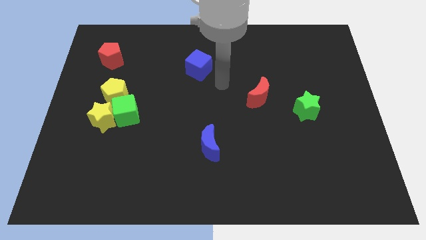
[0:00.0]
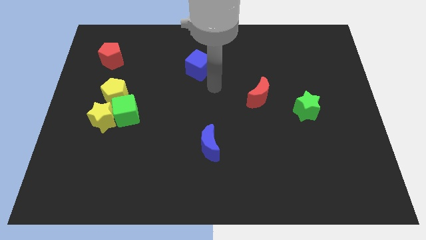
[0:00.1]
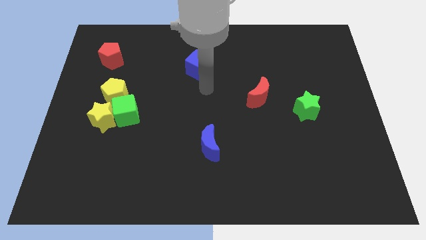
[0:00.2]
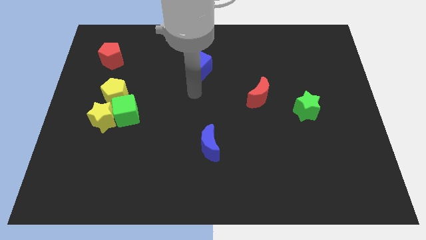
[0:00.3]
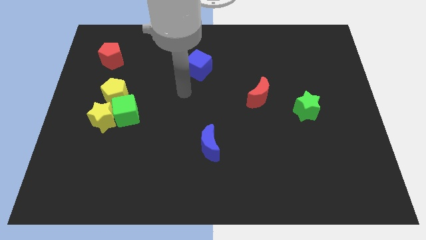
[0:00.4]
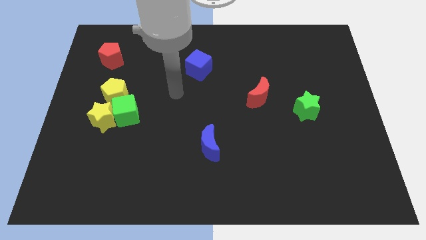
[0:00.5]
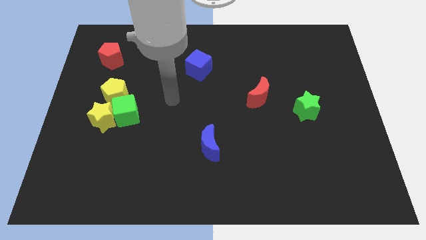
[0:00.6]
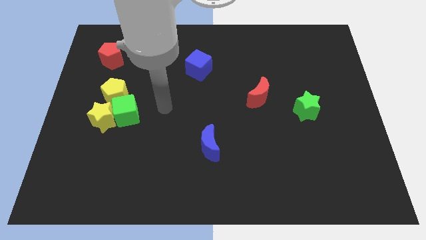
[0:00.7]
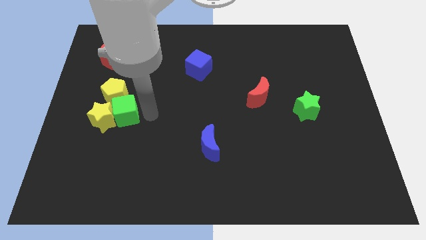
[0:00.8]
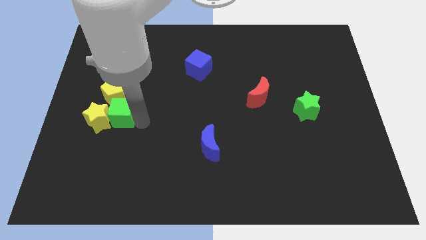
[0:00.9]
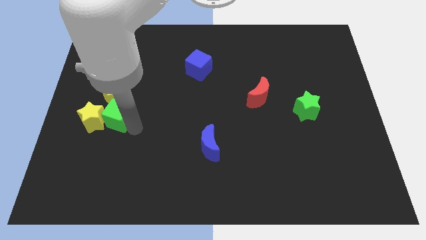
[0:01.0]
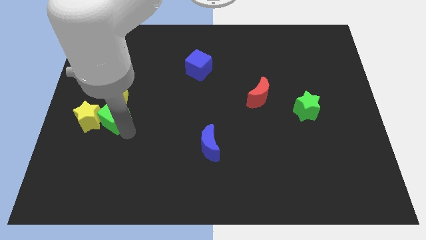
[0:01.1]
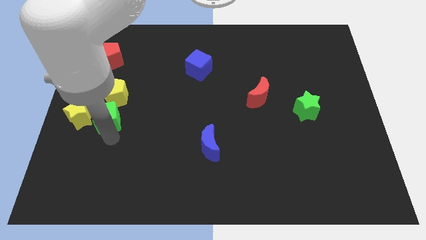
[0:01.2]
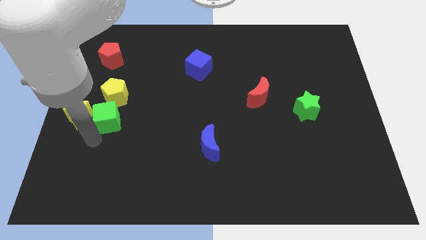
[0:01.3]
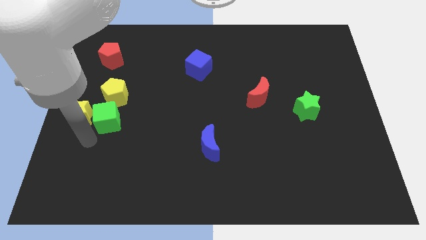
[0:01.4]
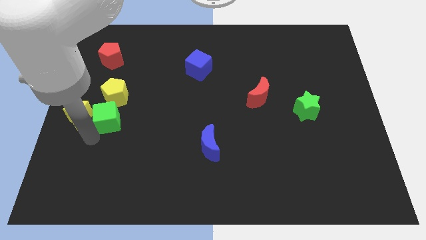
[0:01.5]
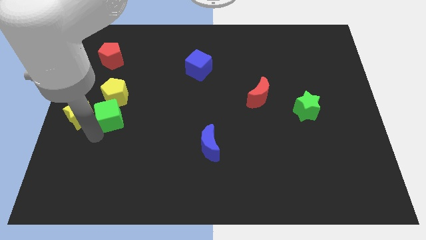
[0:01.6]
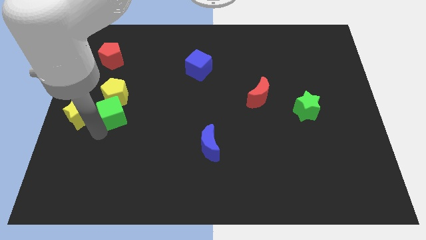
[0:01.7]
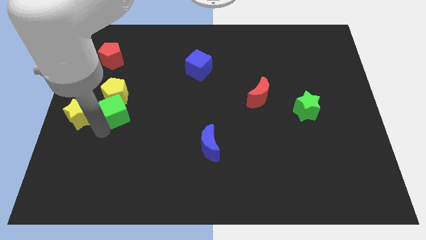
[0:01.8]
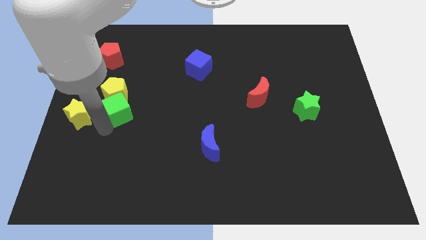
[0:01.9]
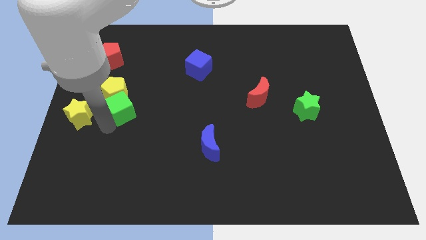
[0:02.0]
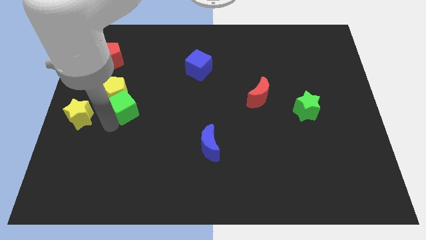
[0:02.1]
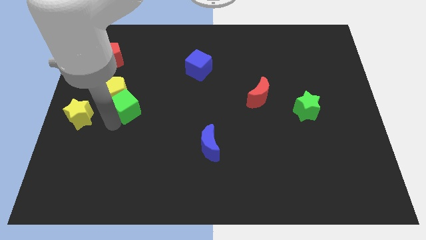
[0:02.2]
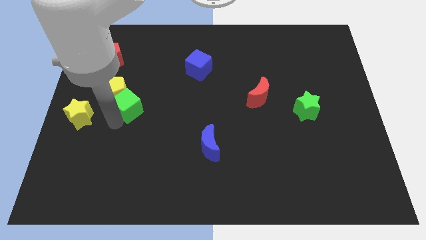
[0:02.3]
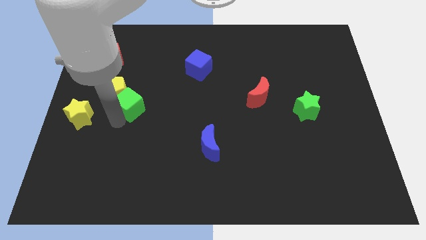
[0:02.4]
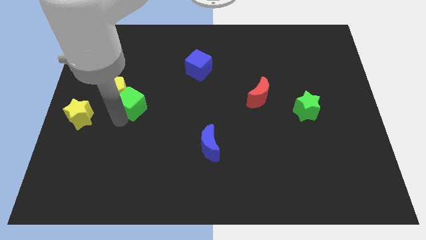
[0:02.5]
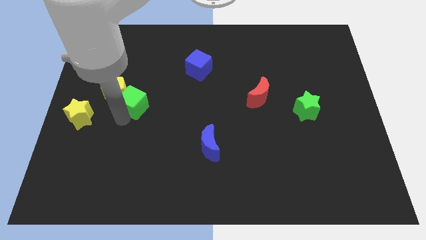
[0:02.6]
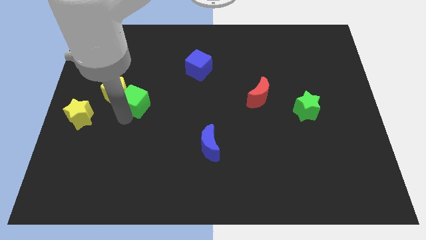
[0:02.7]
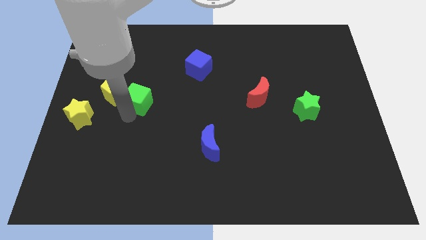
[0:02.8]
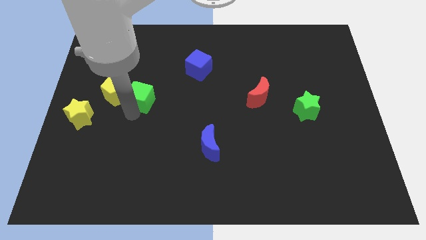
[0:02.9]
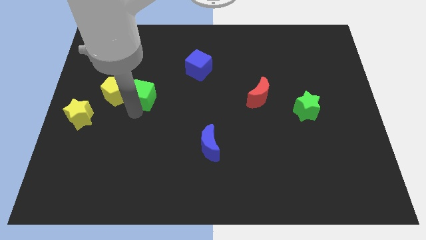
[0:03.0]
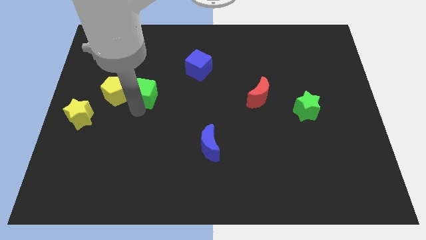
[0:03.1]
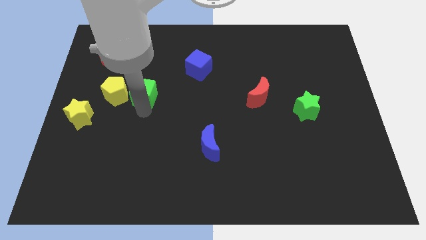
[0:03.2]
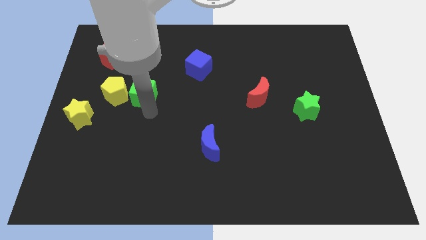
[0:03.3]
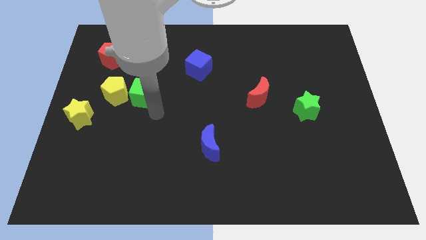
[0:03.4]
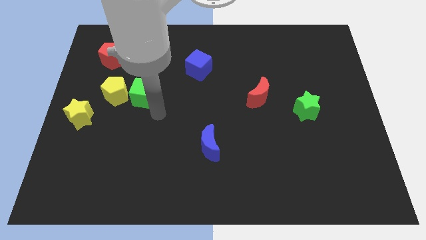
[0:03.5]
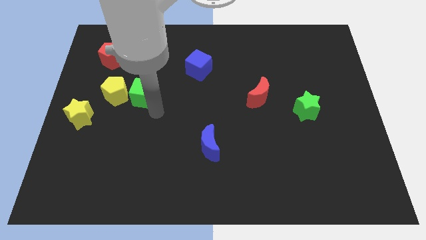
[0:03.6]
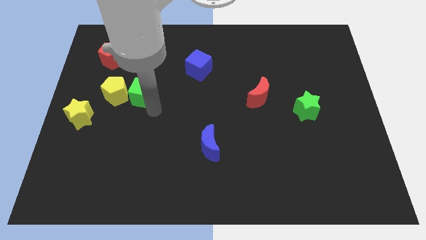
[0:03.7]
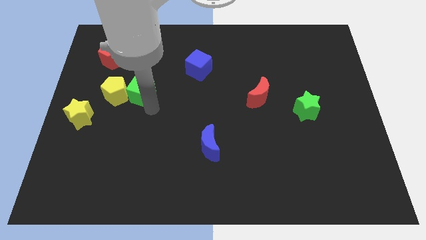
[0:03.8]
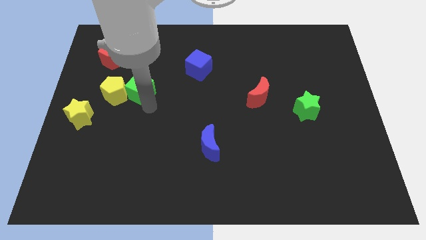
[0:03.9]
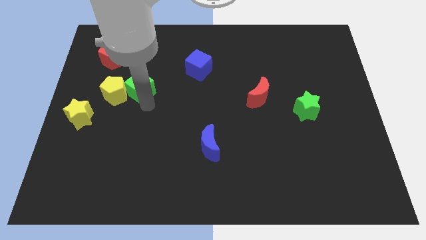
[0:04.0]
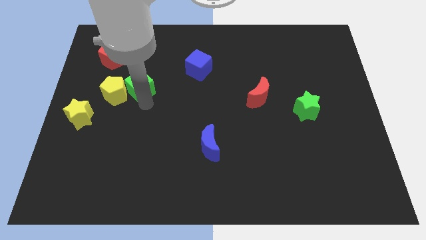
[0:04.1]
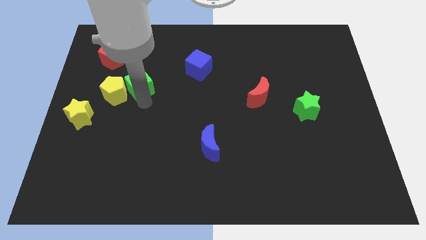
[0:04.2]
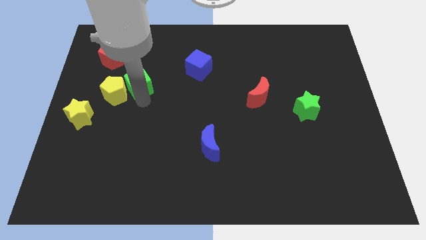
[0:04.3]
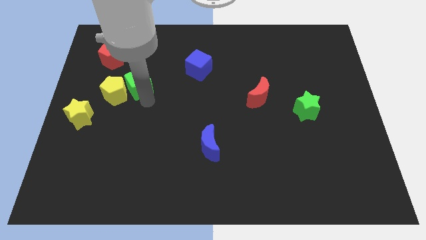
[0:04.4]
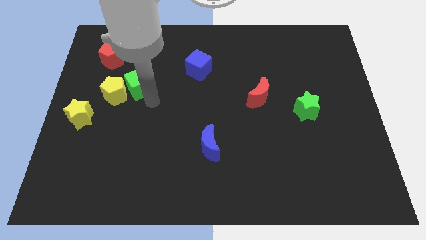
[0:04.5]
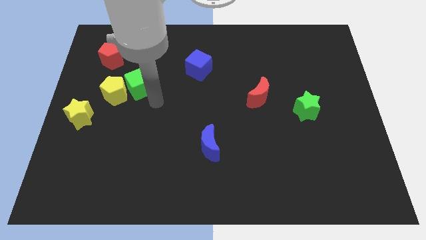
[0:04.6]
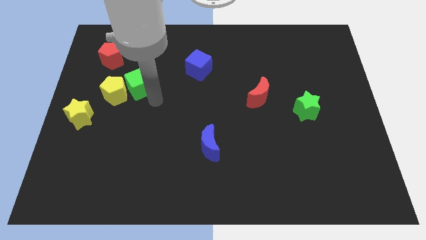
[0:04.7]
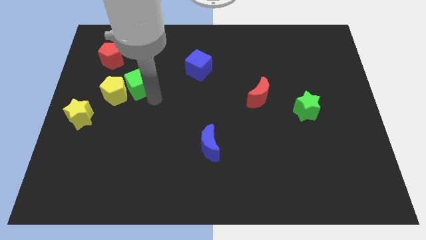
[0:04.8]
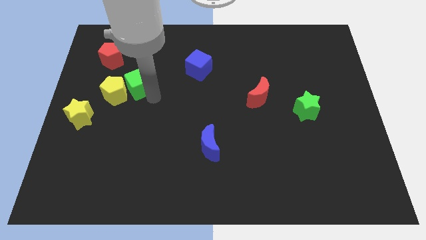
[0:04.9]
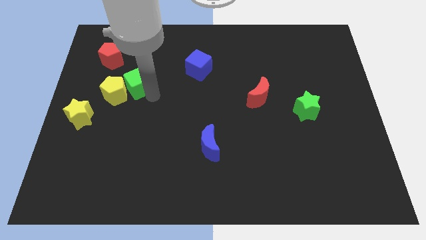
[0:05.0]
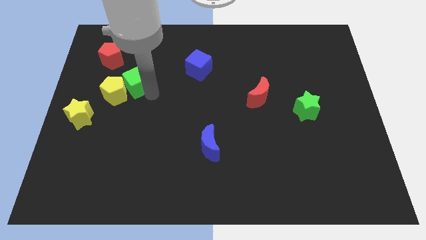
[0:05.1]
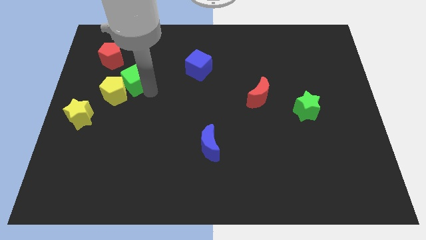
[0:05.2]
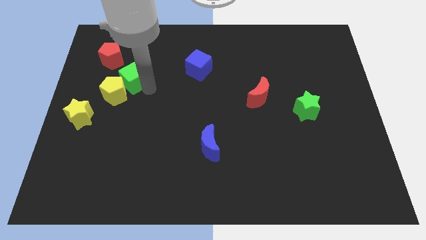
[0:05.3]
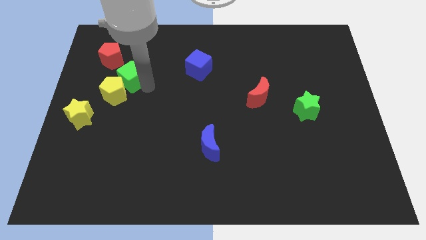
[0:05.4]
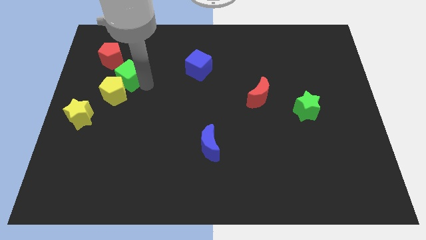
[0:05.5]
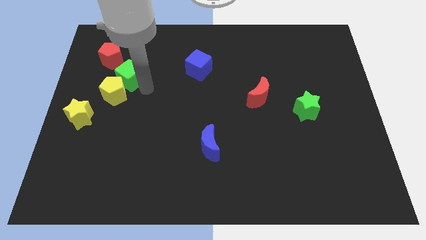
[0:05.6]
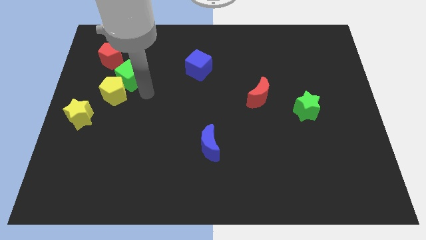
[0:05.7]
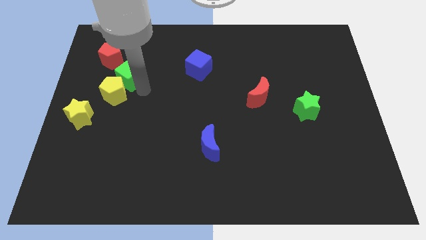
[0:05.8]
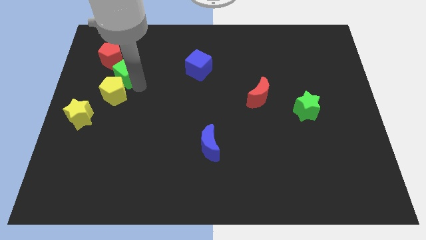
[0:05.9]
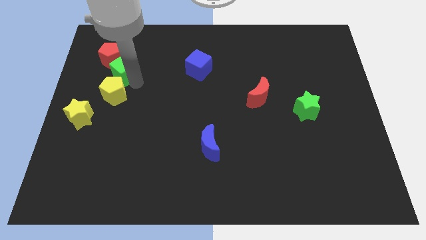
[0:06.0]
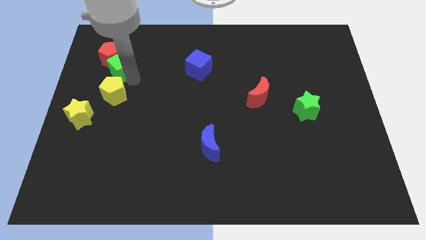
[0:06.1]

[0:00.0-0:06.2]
slide the green cube close to the red pentagon

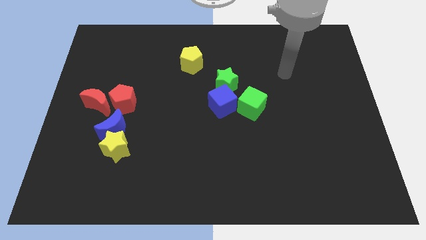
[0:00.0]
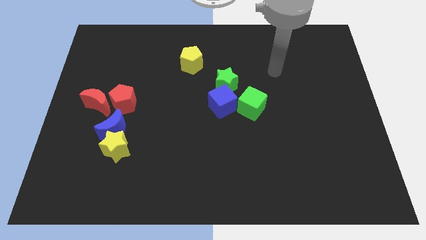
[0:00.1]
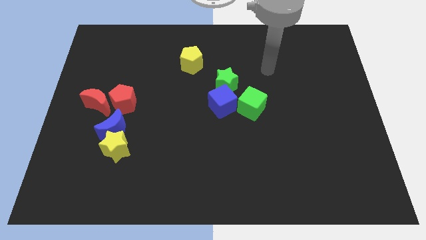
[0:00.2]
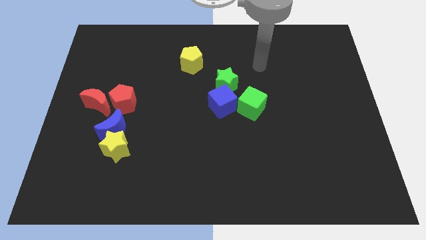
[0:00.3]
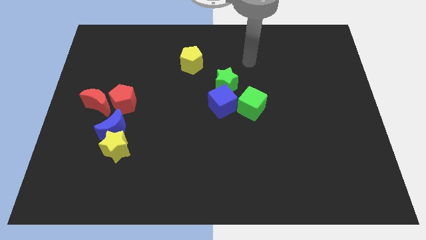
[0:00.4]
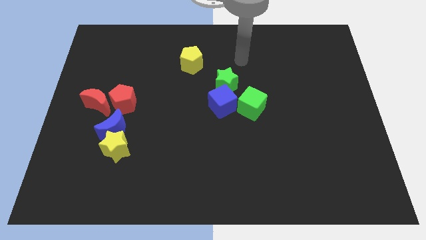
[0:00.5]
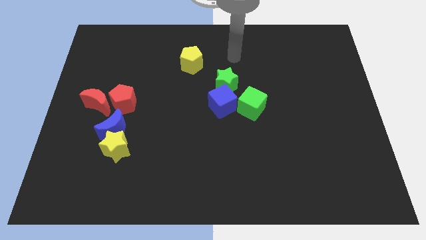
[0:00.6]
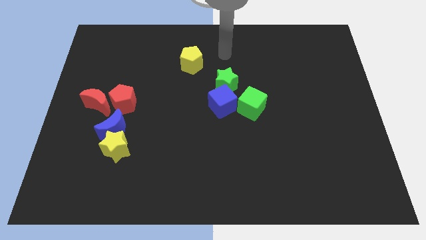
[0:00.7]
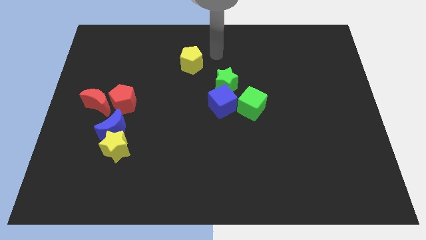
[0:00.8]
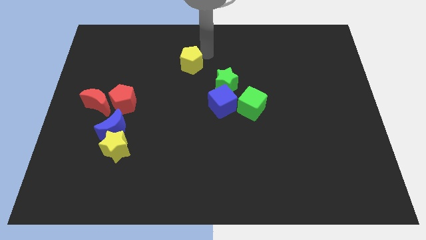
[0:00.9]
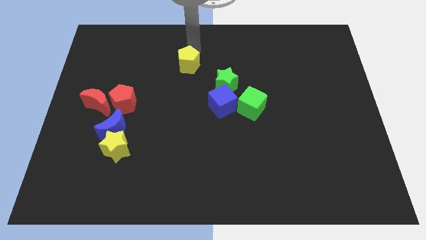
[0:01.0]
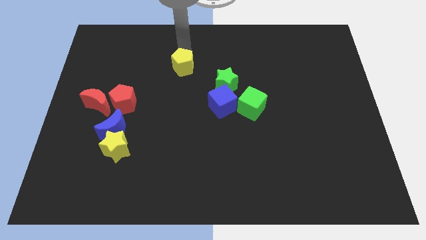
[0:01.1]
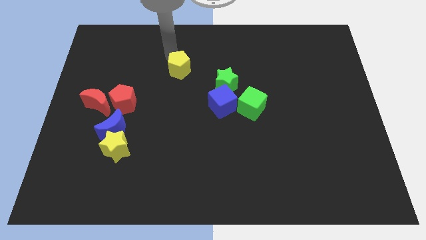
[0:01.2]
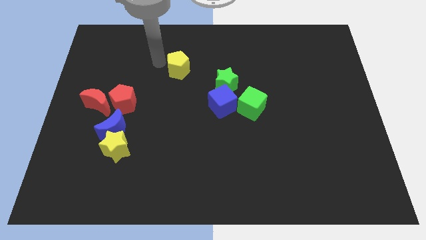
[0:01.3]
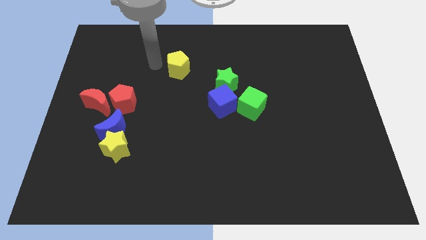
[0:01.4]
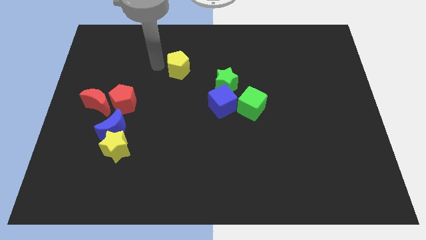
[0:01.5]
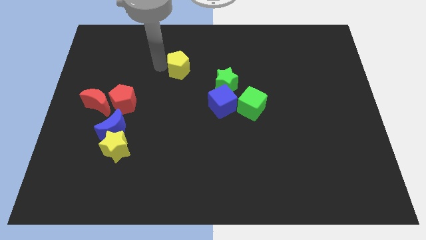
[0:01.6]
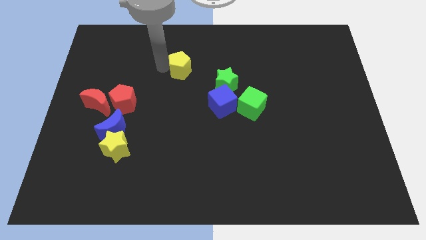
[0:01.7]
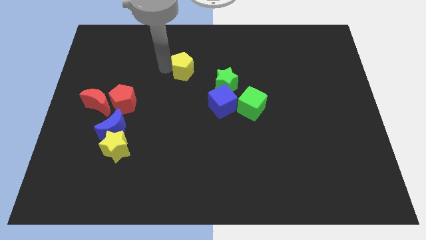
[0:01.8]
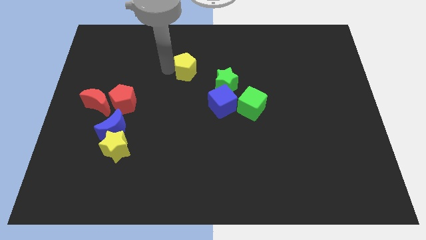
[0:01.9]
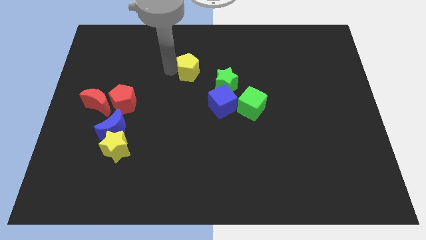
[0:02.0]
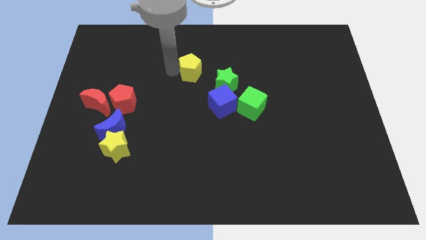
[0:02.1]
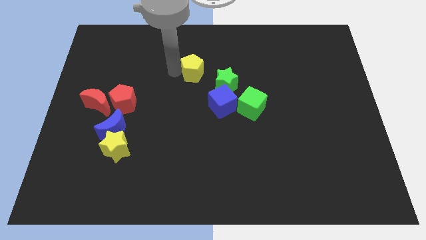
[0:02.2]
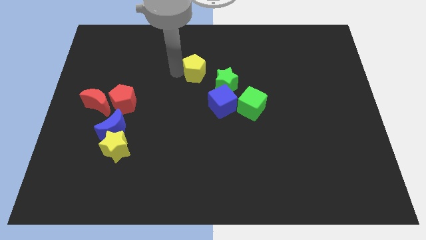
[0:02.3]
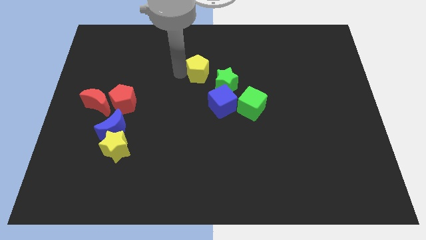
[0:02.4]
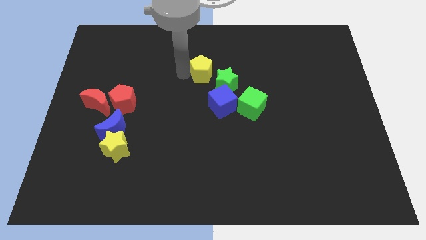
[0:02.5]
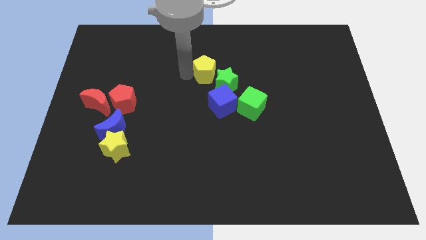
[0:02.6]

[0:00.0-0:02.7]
put the yellow pentagon close to the green star
